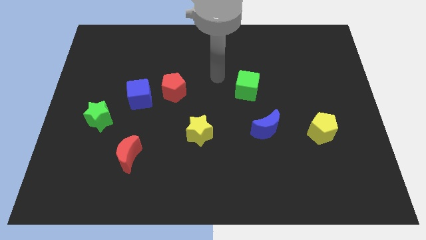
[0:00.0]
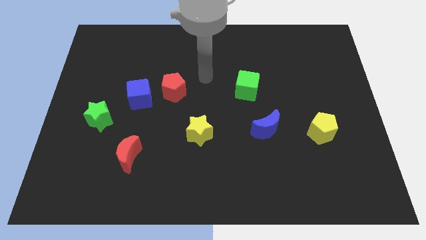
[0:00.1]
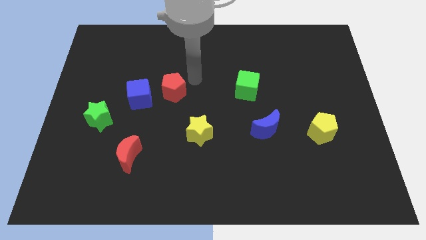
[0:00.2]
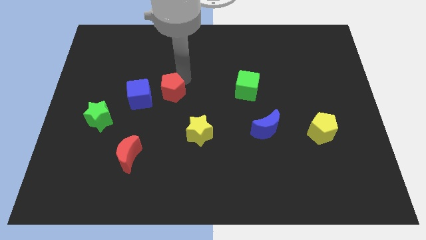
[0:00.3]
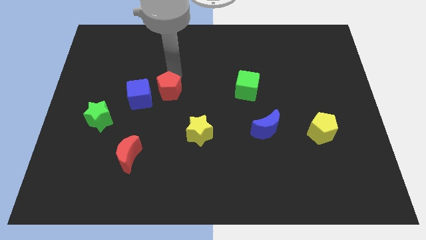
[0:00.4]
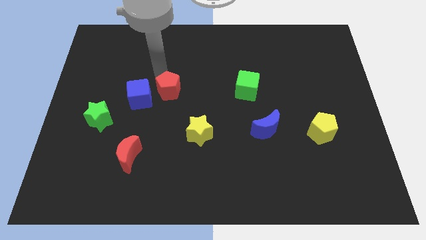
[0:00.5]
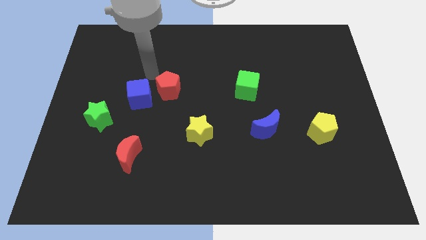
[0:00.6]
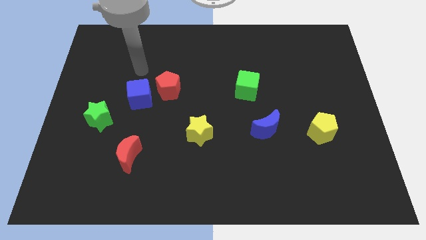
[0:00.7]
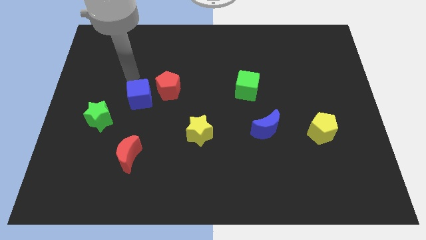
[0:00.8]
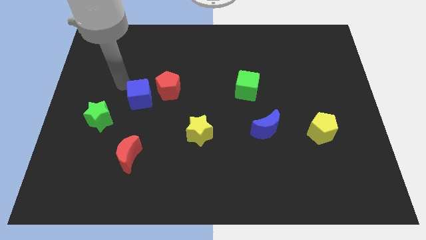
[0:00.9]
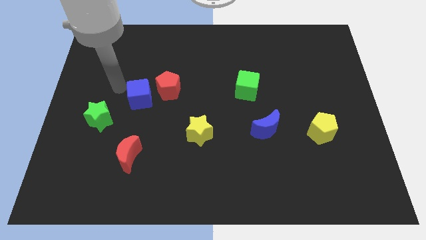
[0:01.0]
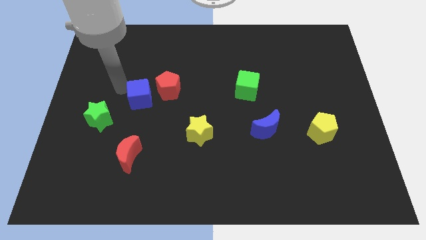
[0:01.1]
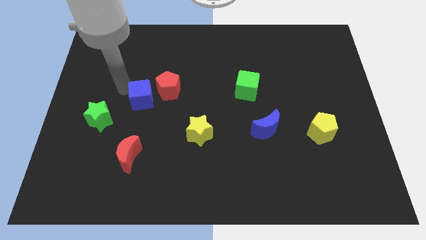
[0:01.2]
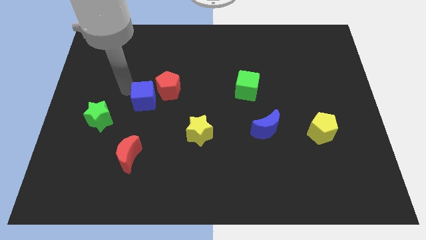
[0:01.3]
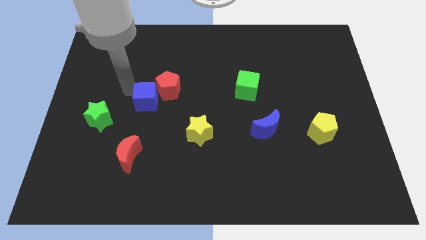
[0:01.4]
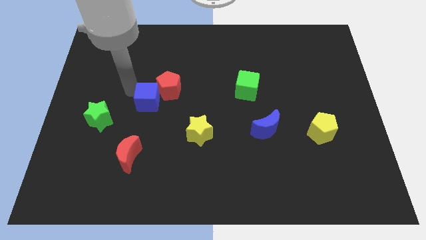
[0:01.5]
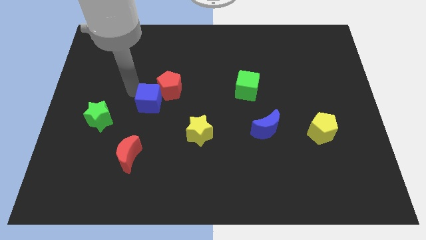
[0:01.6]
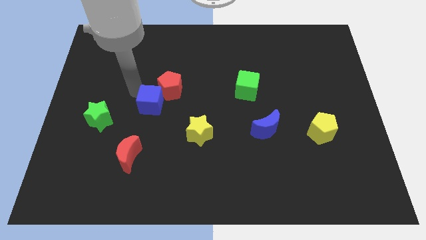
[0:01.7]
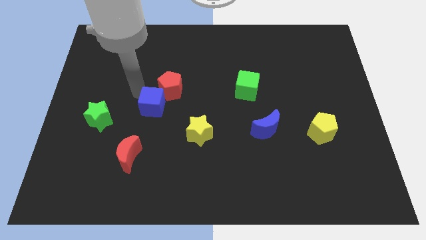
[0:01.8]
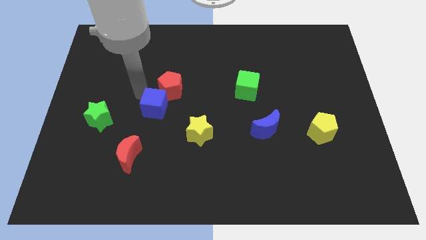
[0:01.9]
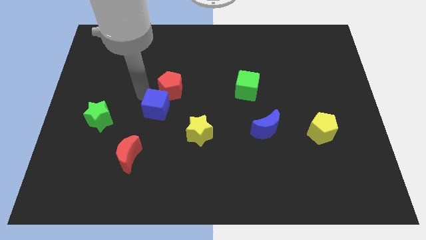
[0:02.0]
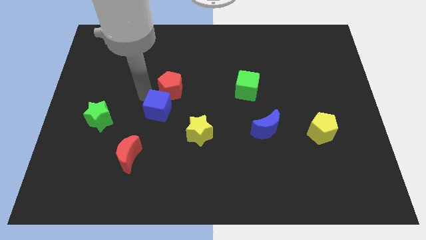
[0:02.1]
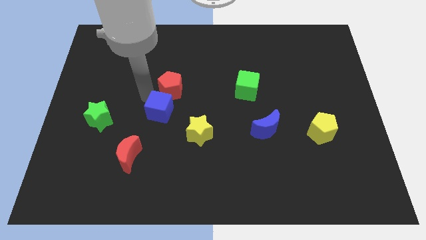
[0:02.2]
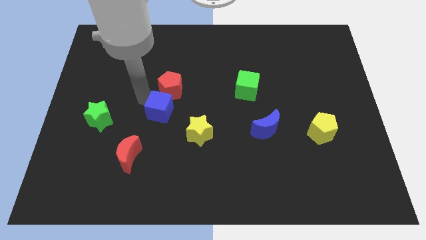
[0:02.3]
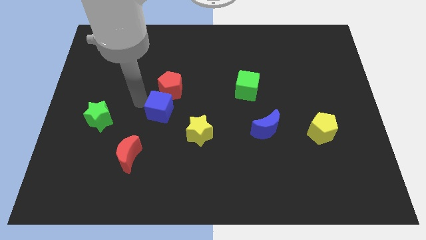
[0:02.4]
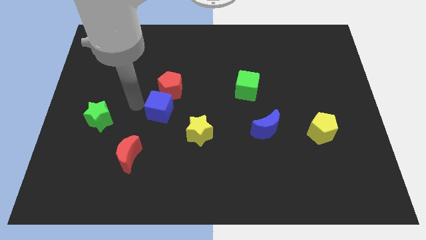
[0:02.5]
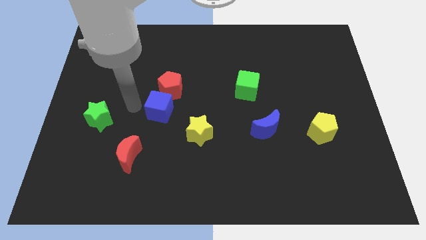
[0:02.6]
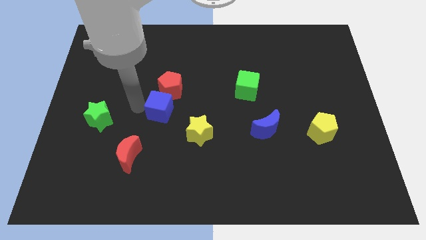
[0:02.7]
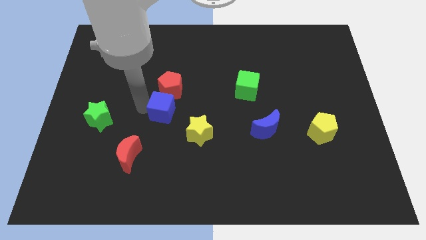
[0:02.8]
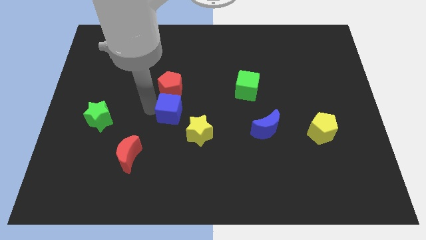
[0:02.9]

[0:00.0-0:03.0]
push the blue cube a little right

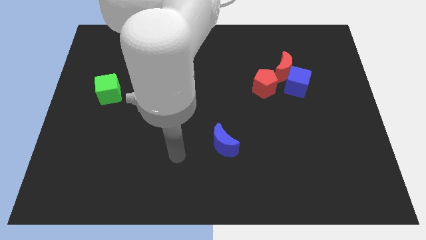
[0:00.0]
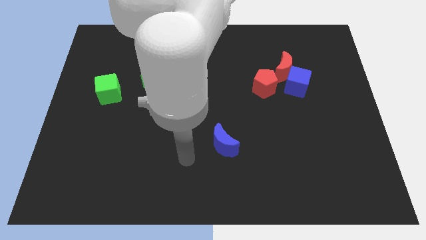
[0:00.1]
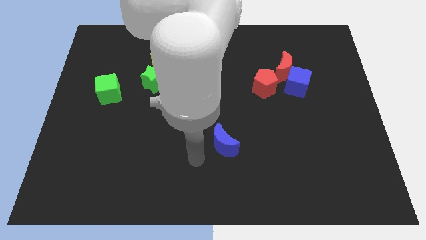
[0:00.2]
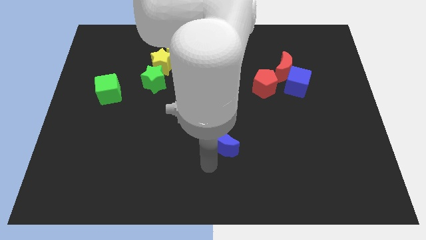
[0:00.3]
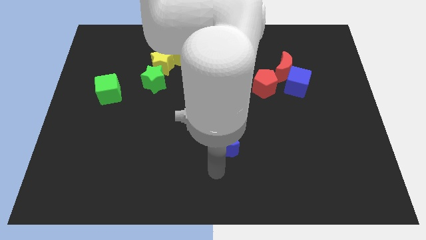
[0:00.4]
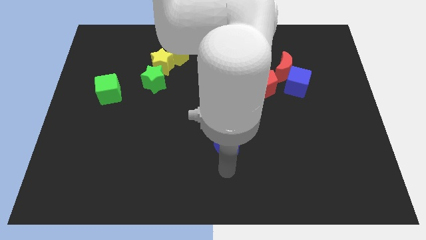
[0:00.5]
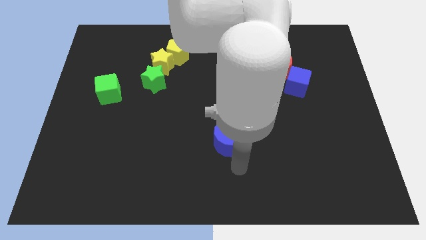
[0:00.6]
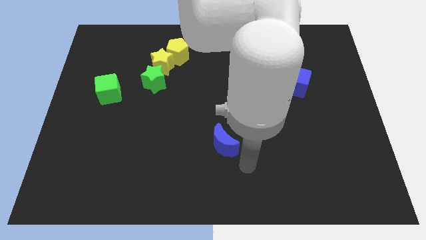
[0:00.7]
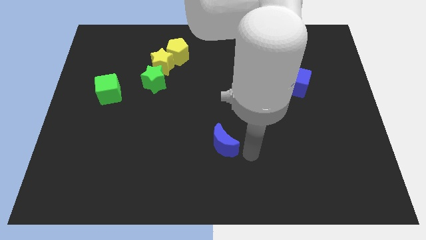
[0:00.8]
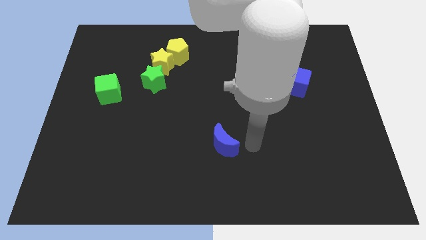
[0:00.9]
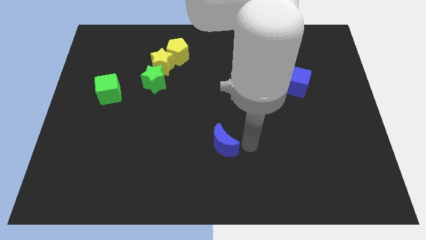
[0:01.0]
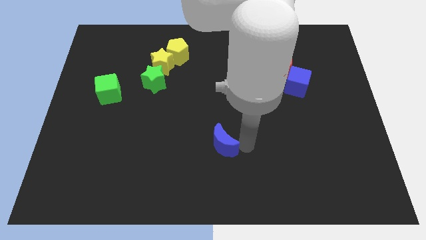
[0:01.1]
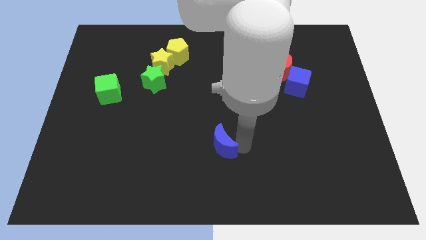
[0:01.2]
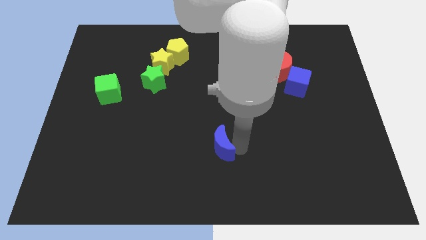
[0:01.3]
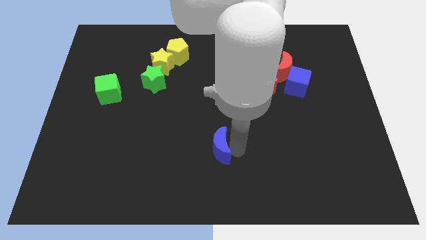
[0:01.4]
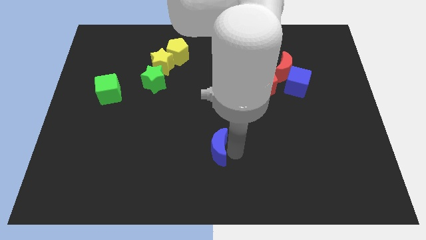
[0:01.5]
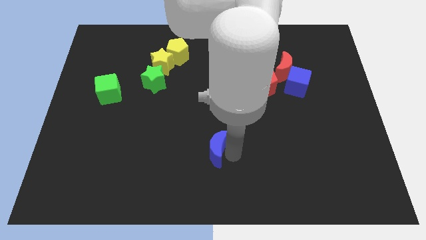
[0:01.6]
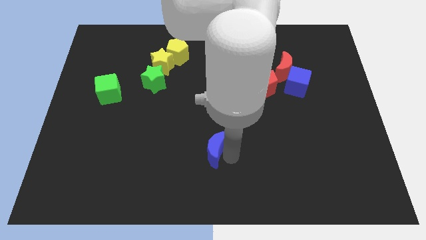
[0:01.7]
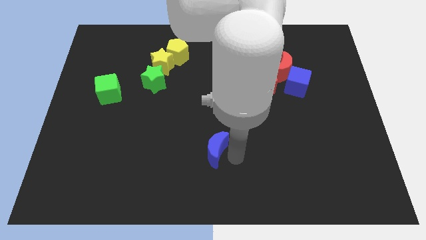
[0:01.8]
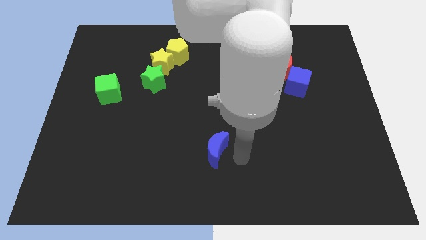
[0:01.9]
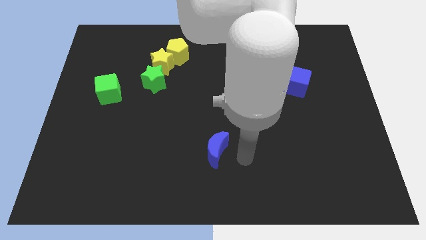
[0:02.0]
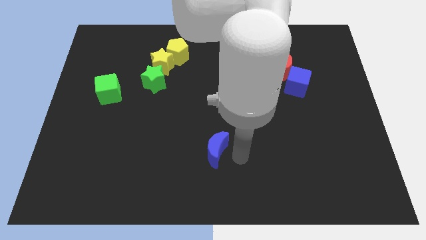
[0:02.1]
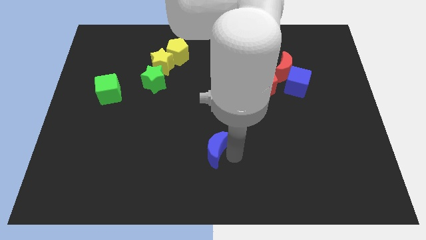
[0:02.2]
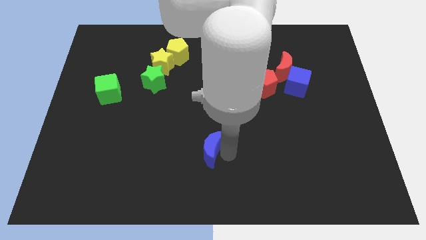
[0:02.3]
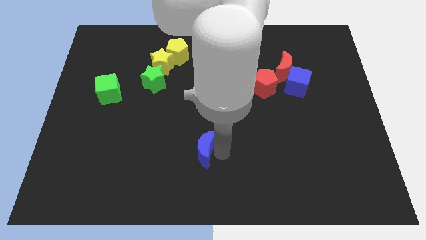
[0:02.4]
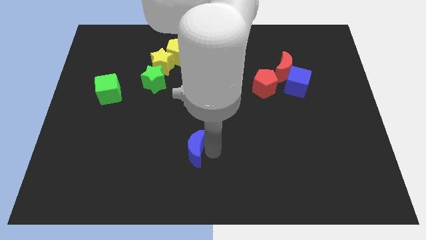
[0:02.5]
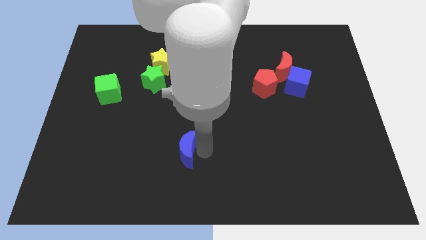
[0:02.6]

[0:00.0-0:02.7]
push the blue moon left somewhat

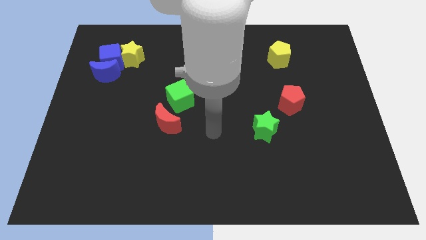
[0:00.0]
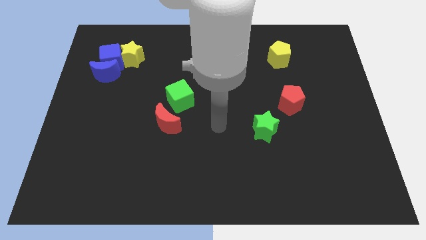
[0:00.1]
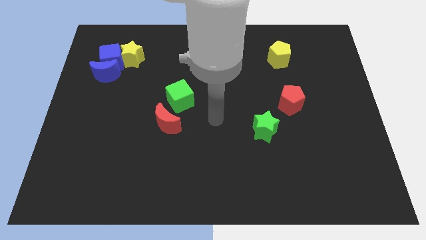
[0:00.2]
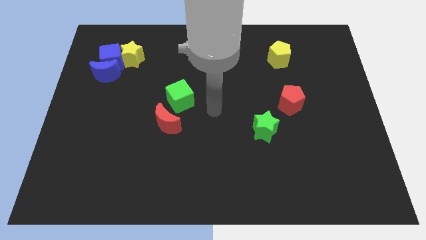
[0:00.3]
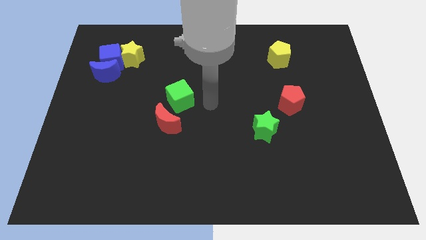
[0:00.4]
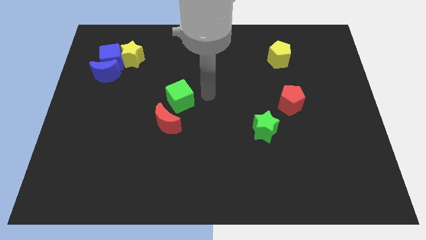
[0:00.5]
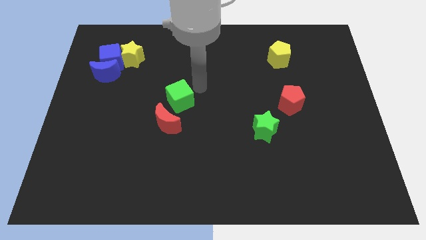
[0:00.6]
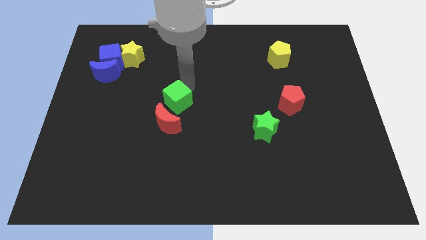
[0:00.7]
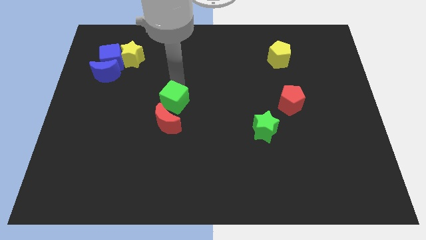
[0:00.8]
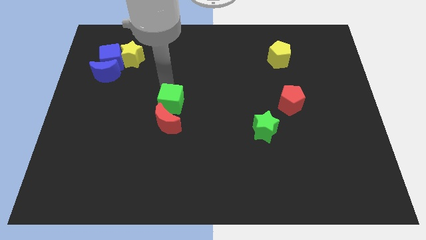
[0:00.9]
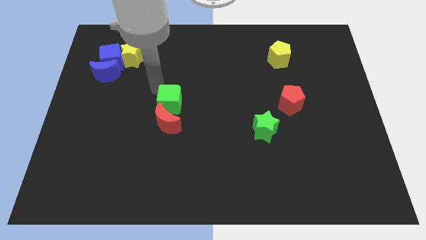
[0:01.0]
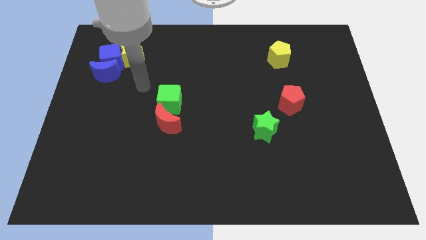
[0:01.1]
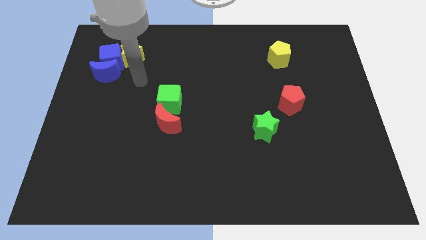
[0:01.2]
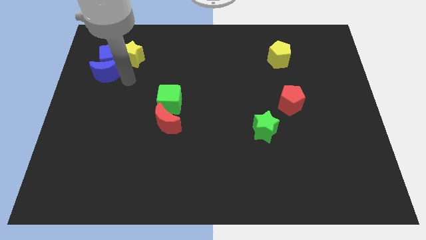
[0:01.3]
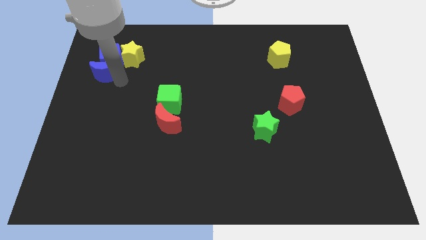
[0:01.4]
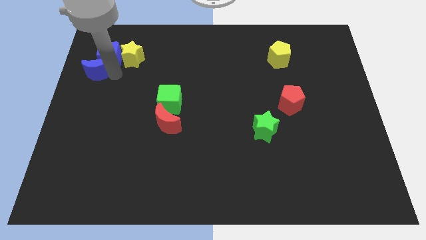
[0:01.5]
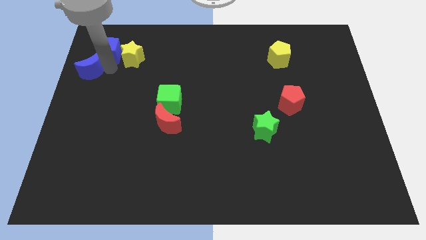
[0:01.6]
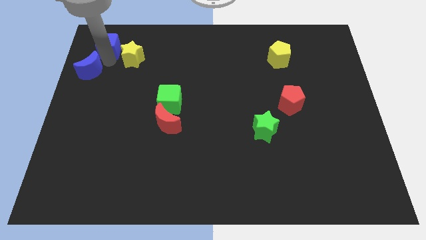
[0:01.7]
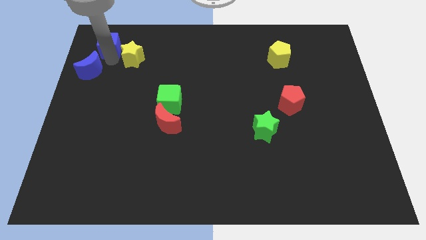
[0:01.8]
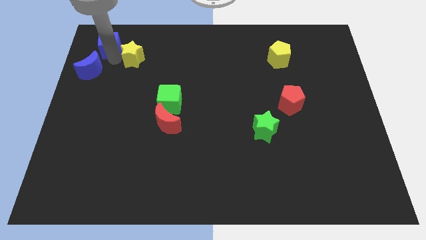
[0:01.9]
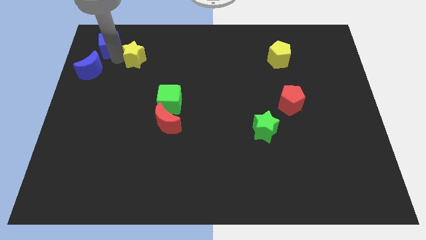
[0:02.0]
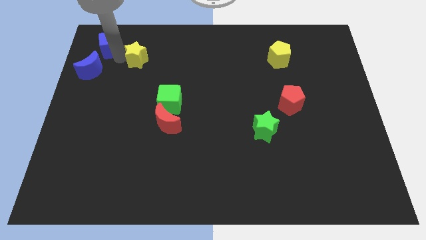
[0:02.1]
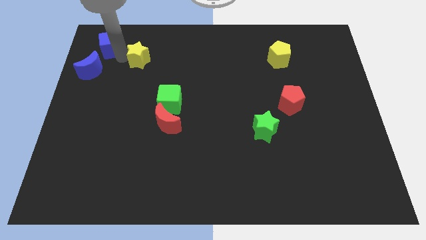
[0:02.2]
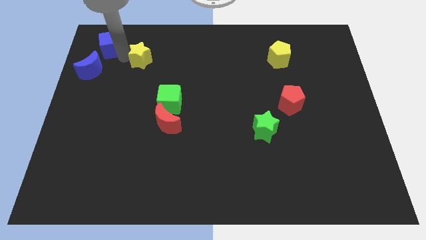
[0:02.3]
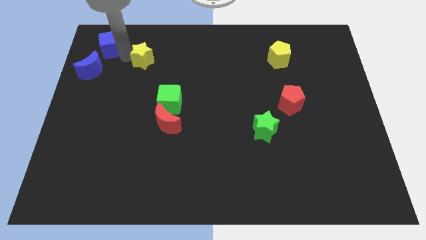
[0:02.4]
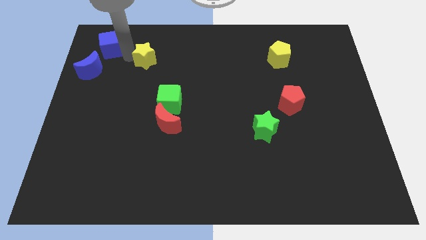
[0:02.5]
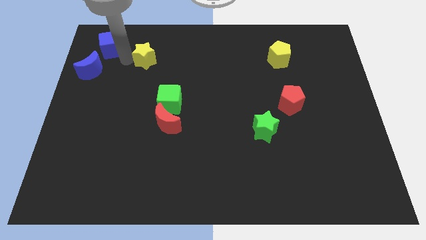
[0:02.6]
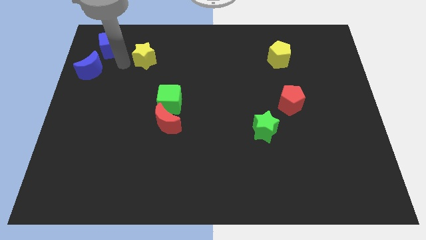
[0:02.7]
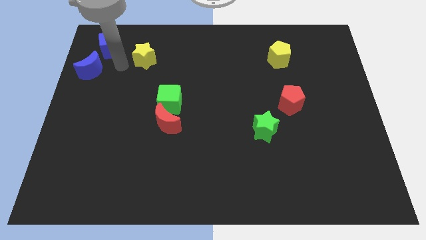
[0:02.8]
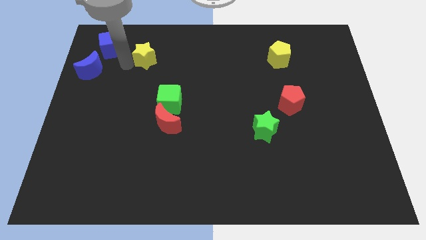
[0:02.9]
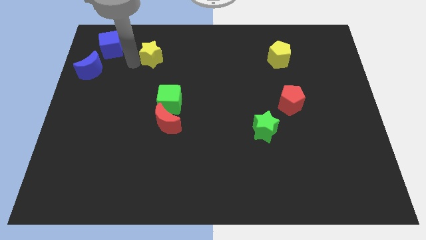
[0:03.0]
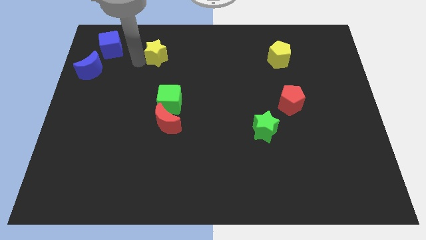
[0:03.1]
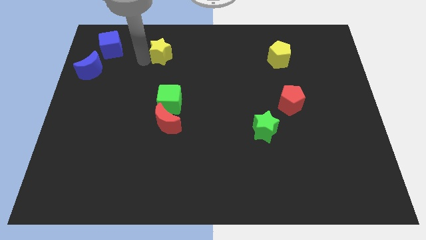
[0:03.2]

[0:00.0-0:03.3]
slightly push the yellow star right
